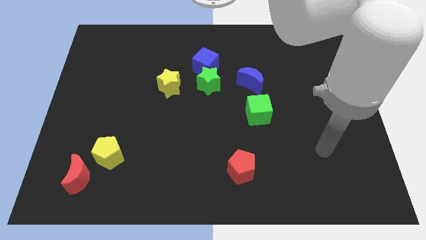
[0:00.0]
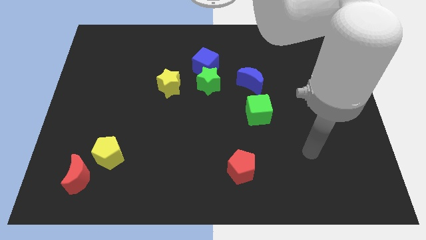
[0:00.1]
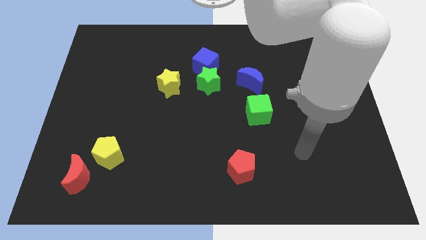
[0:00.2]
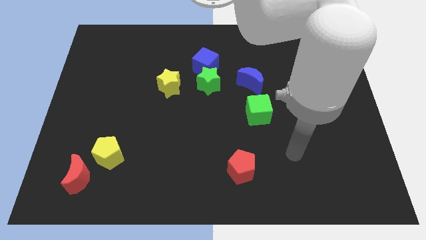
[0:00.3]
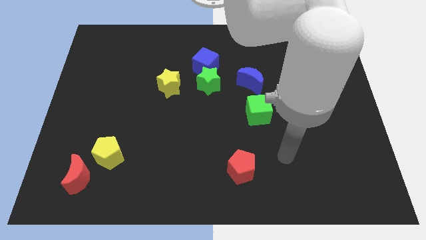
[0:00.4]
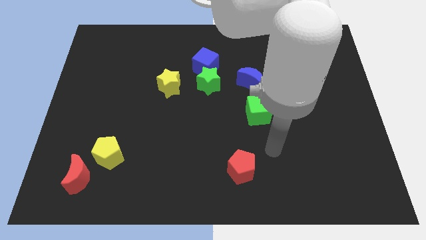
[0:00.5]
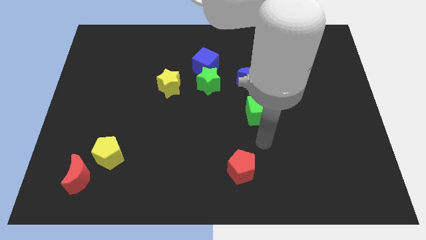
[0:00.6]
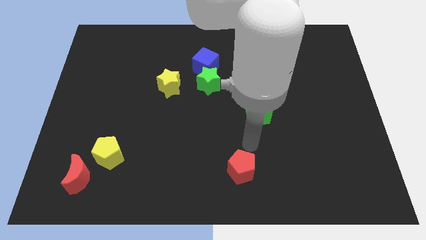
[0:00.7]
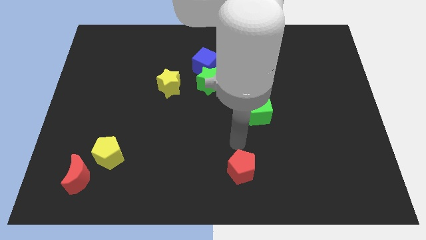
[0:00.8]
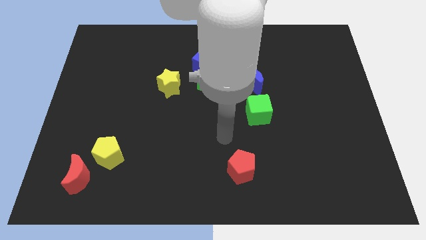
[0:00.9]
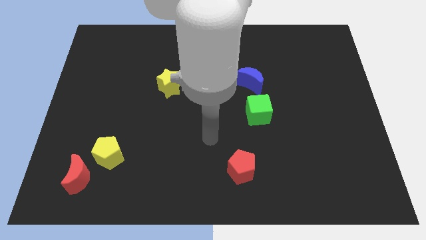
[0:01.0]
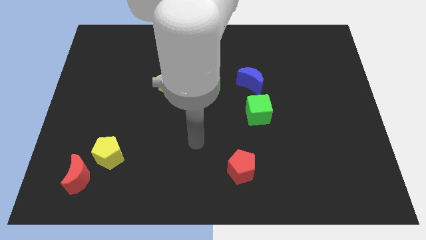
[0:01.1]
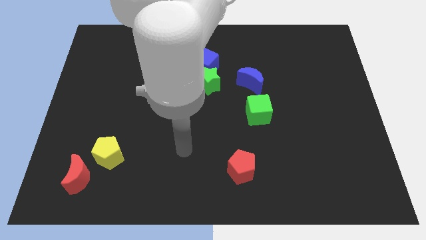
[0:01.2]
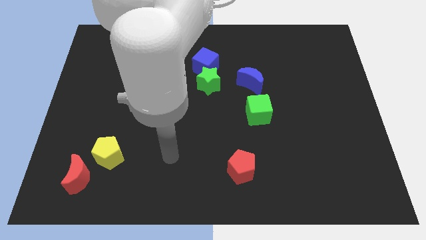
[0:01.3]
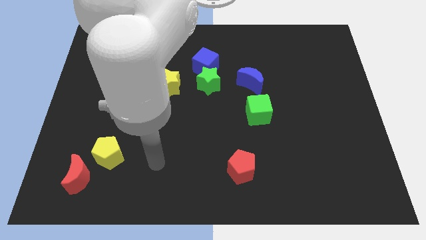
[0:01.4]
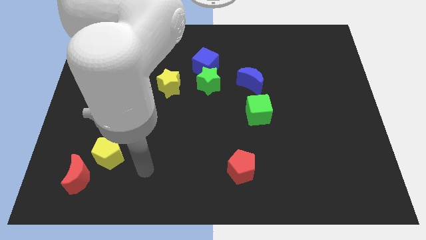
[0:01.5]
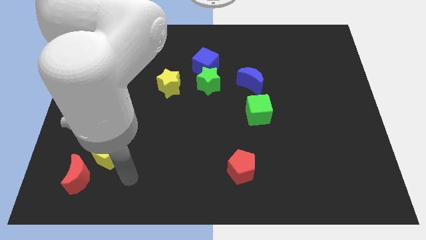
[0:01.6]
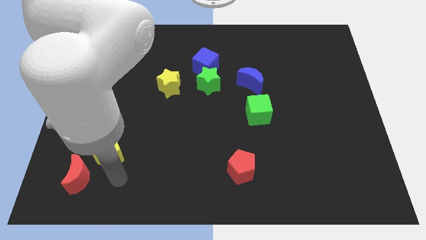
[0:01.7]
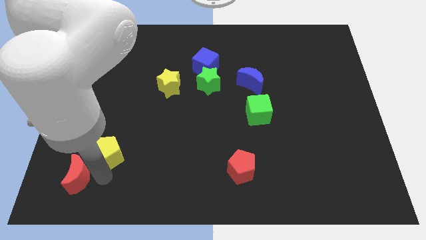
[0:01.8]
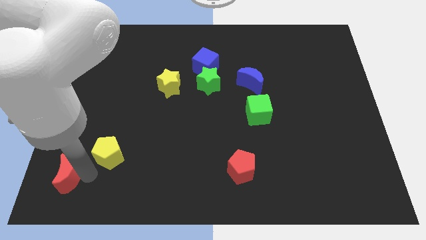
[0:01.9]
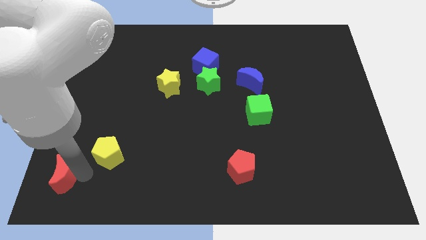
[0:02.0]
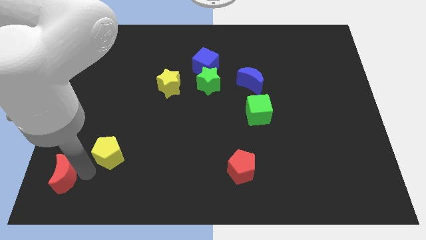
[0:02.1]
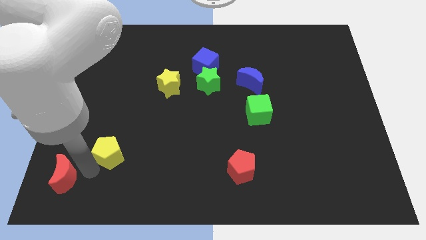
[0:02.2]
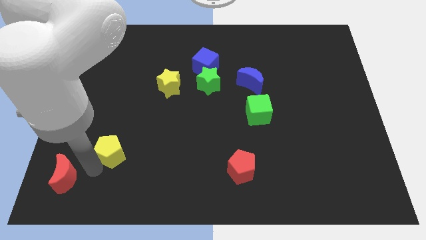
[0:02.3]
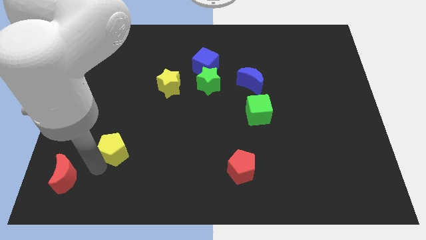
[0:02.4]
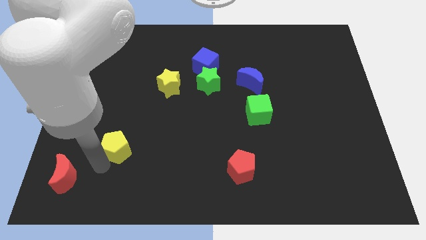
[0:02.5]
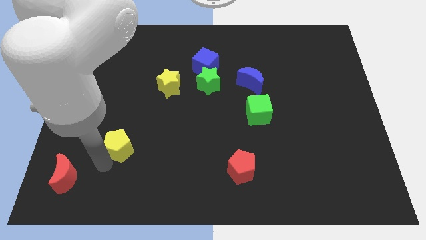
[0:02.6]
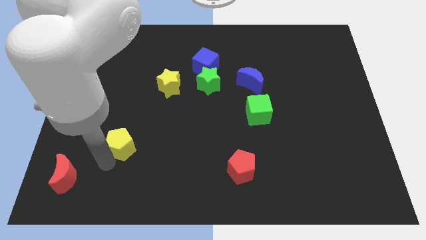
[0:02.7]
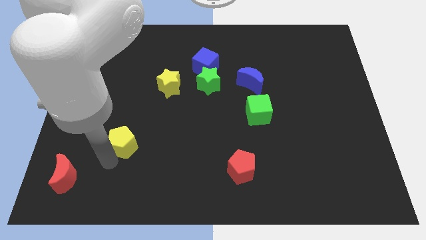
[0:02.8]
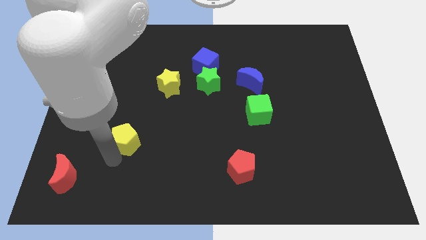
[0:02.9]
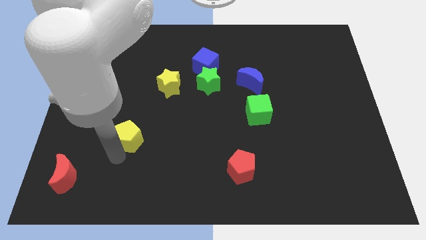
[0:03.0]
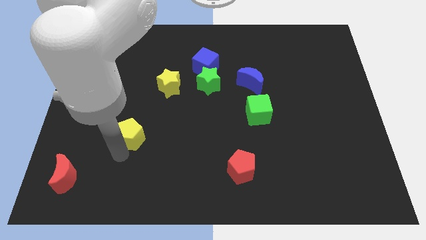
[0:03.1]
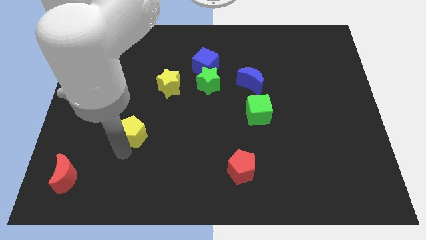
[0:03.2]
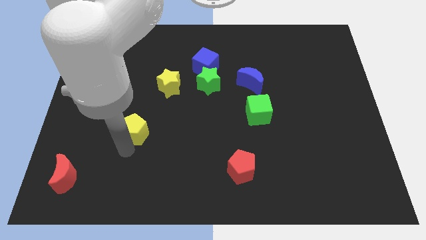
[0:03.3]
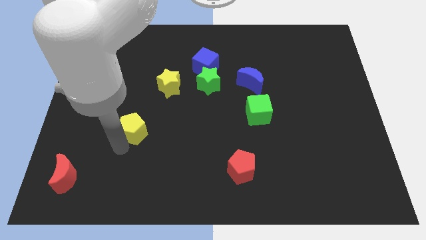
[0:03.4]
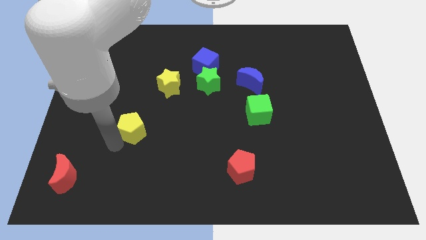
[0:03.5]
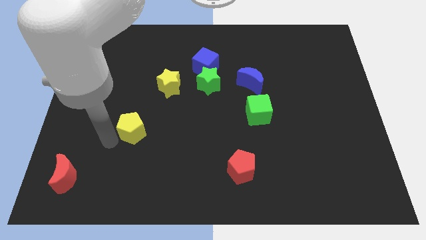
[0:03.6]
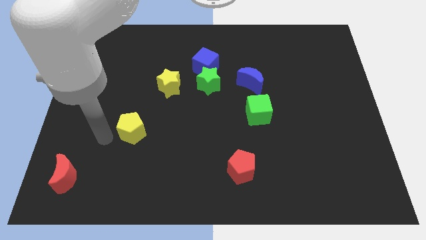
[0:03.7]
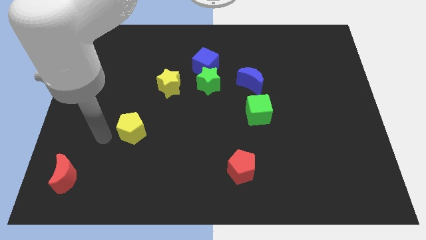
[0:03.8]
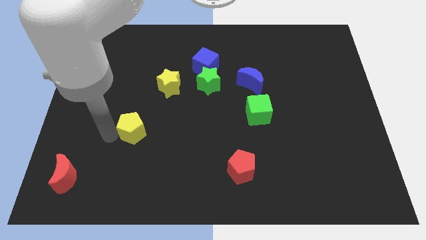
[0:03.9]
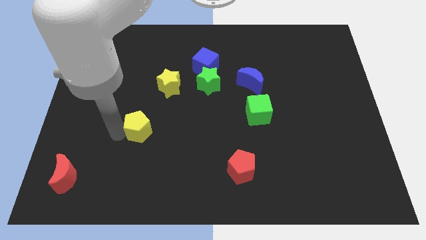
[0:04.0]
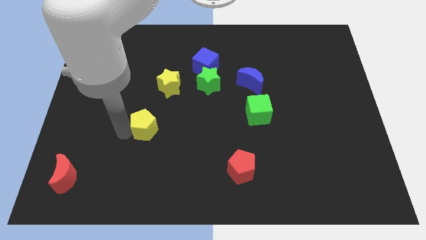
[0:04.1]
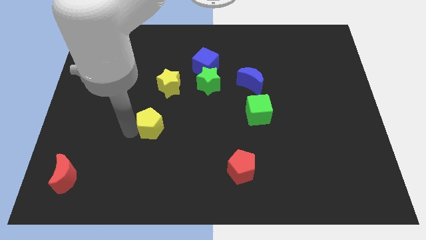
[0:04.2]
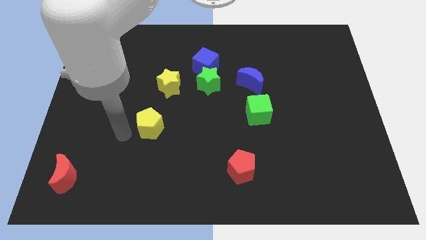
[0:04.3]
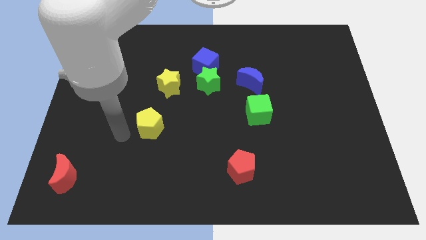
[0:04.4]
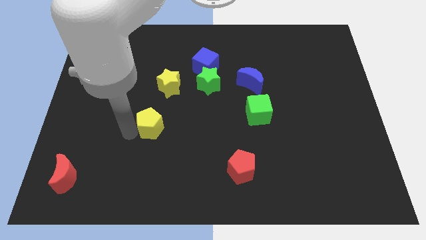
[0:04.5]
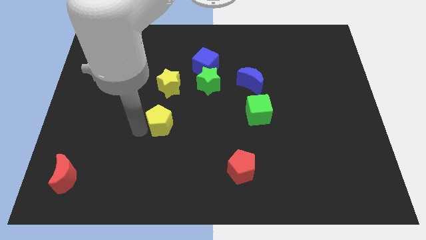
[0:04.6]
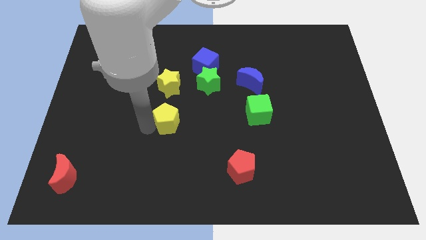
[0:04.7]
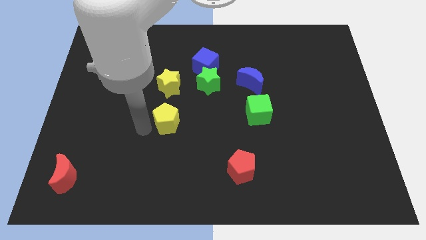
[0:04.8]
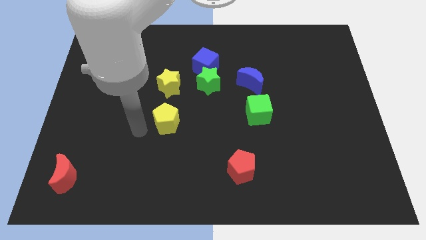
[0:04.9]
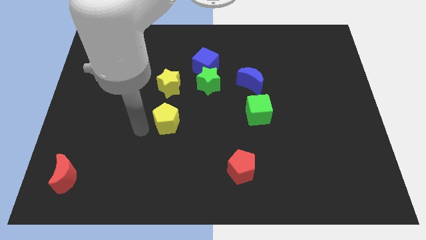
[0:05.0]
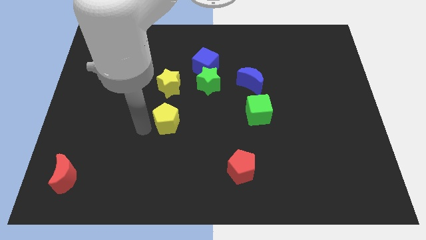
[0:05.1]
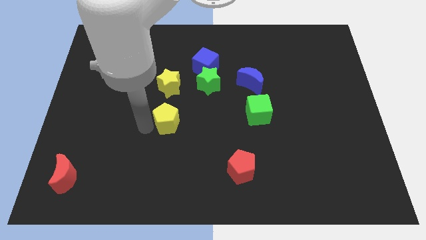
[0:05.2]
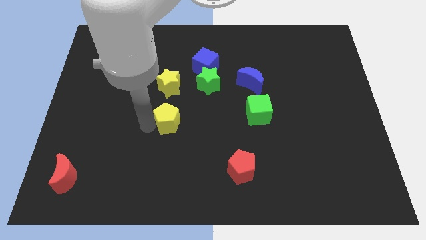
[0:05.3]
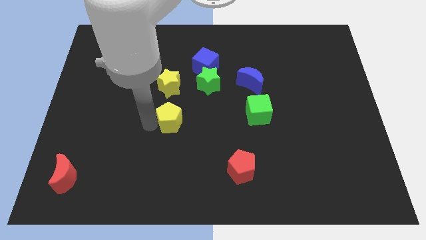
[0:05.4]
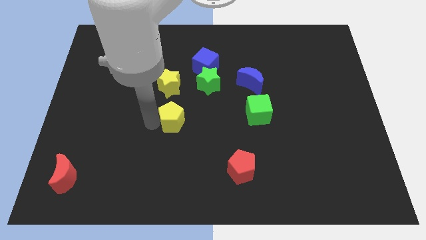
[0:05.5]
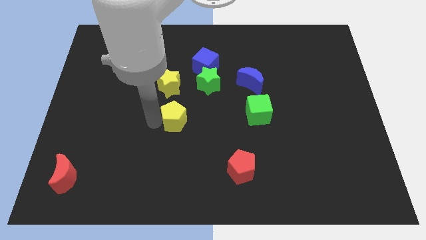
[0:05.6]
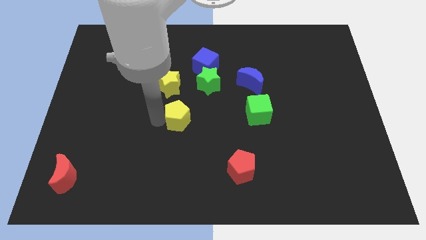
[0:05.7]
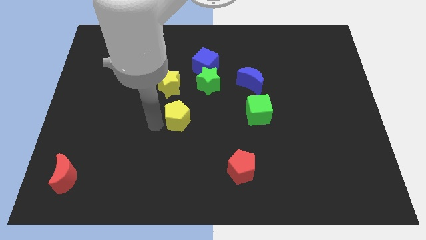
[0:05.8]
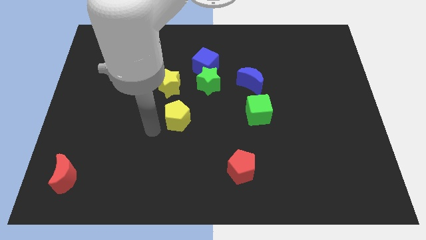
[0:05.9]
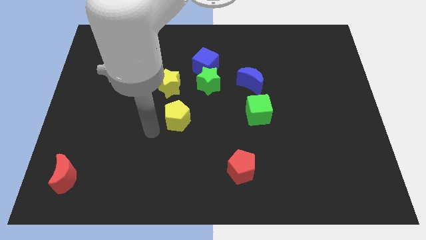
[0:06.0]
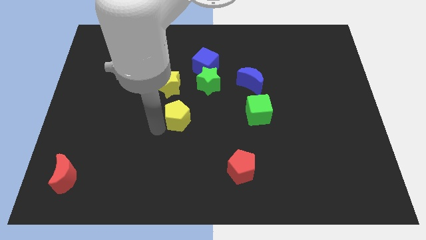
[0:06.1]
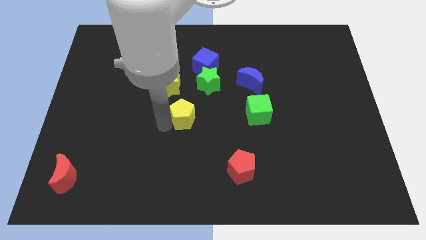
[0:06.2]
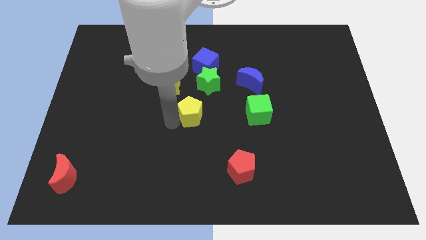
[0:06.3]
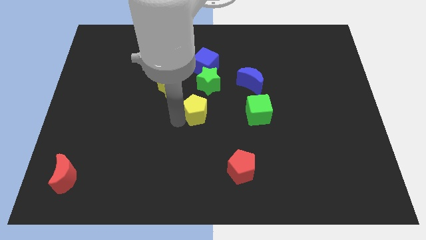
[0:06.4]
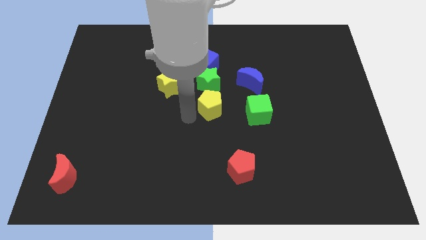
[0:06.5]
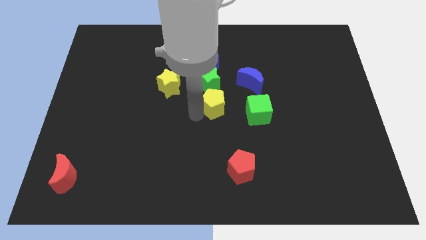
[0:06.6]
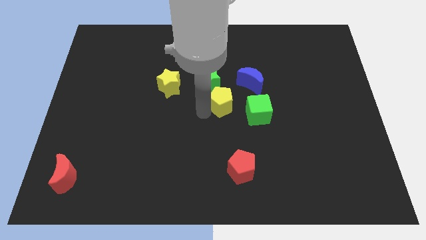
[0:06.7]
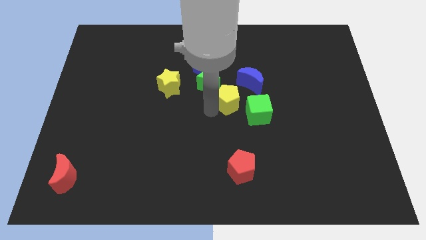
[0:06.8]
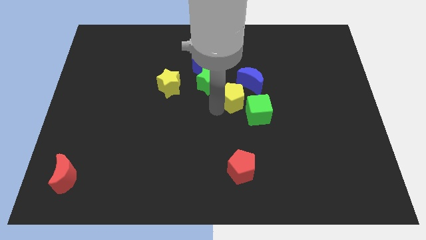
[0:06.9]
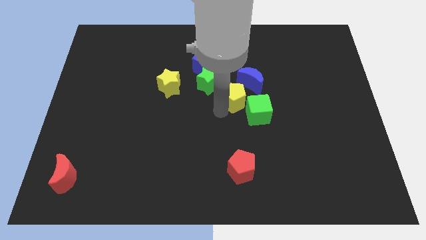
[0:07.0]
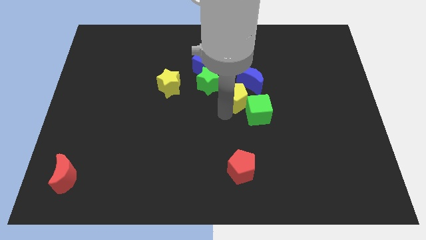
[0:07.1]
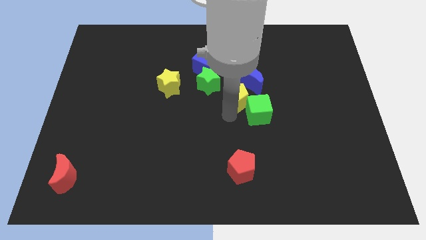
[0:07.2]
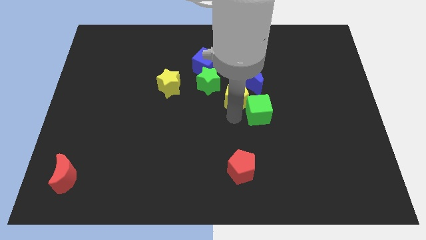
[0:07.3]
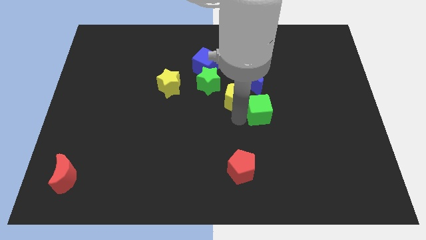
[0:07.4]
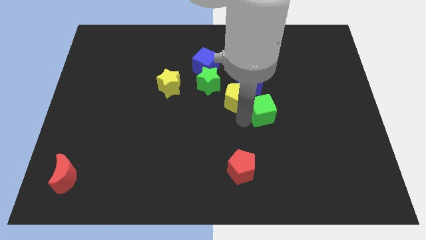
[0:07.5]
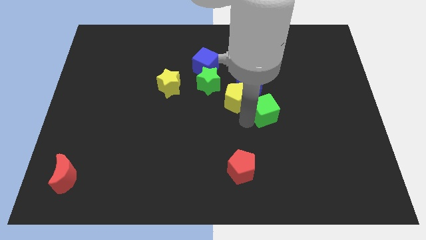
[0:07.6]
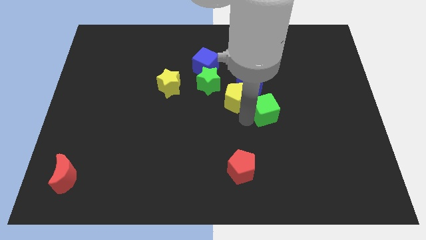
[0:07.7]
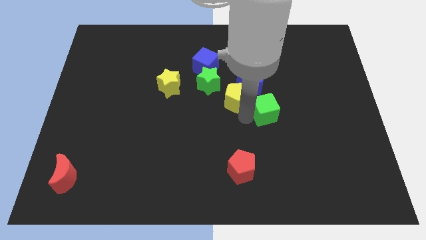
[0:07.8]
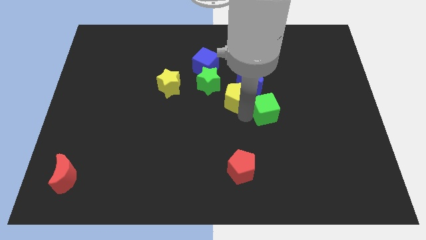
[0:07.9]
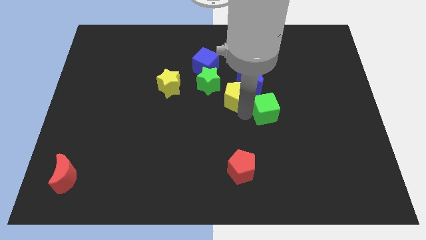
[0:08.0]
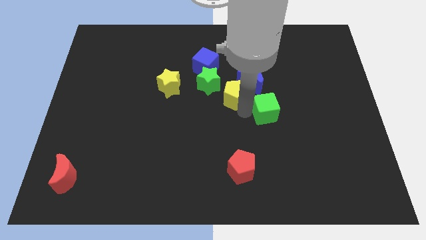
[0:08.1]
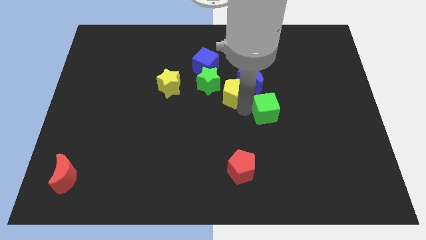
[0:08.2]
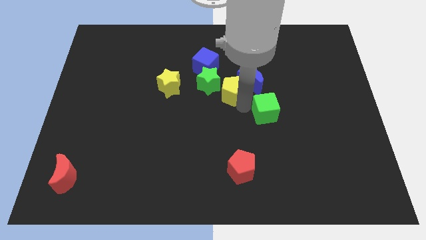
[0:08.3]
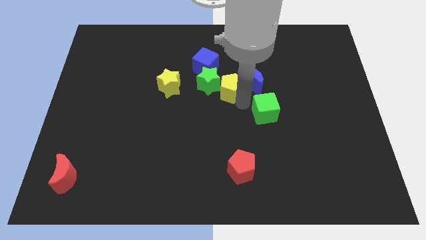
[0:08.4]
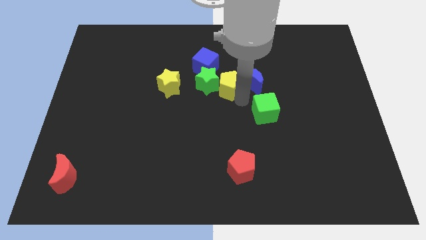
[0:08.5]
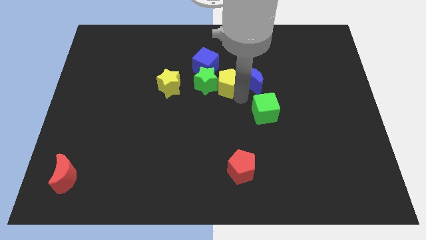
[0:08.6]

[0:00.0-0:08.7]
push the yellow pentagon to the top left of the blue moon
